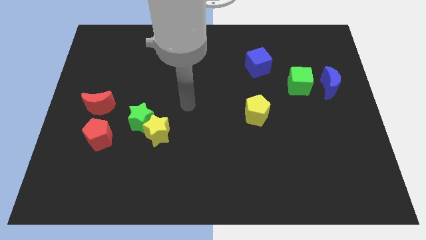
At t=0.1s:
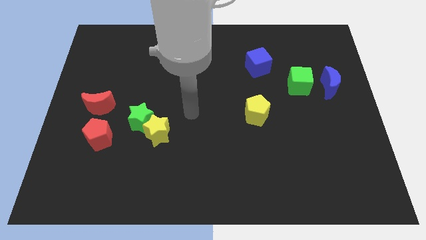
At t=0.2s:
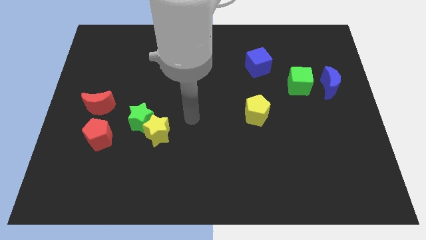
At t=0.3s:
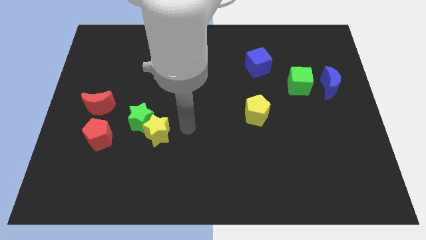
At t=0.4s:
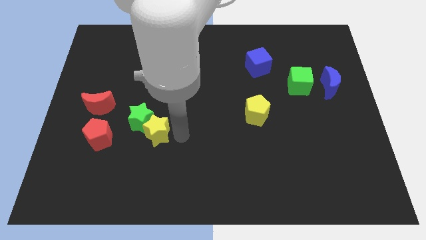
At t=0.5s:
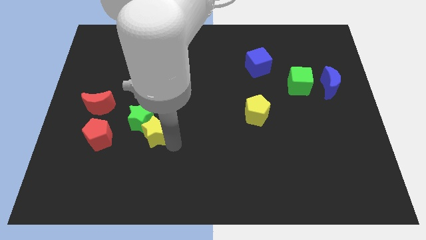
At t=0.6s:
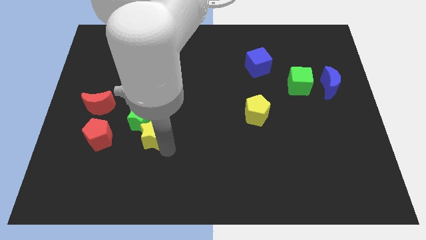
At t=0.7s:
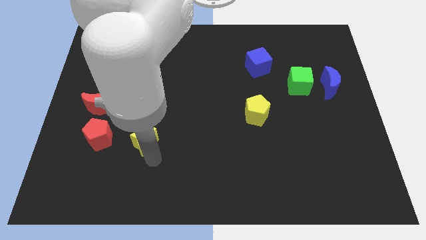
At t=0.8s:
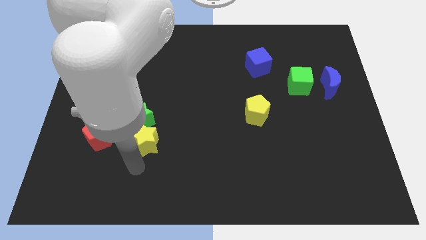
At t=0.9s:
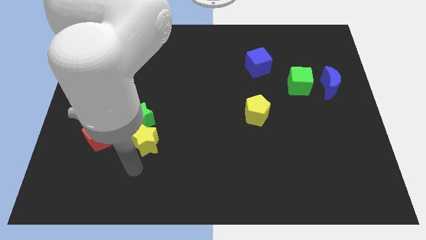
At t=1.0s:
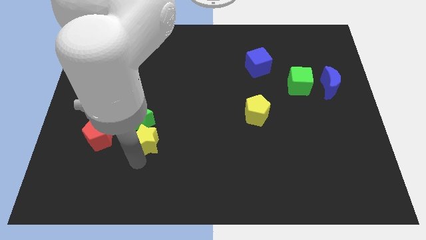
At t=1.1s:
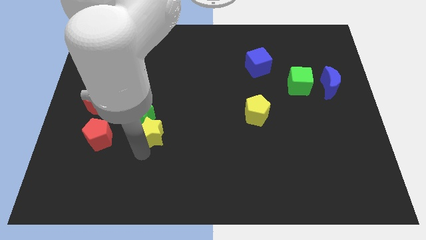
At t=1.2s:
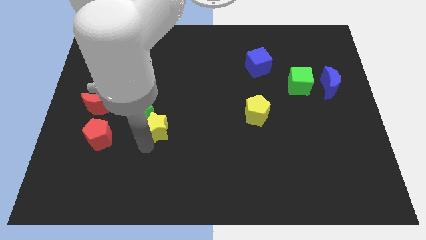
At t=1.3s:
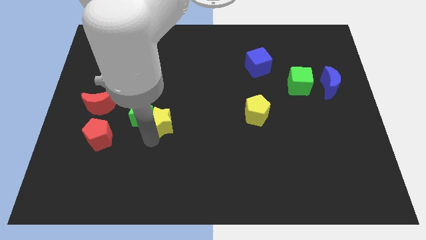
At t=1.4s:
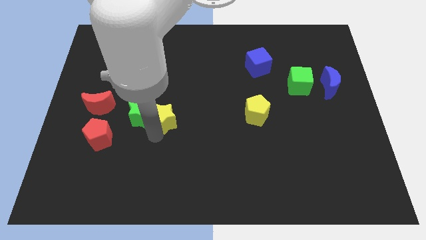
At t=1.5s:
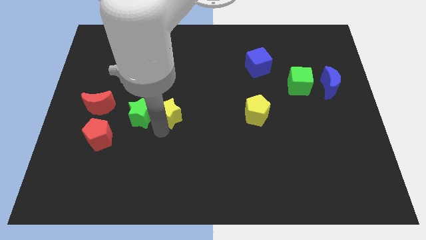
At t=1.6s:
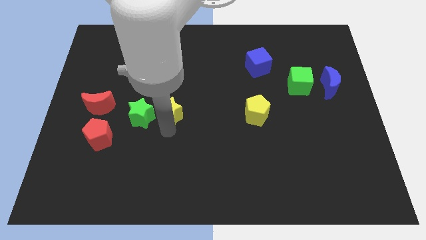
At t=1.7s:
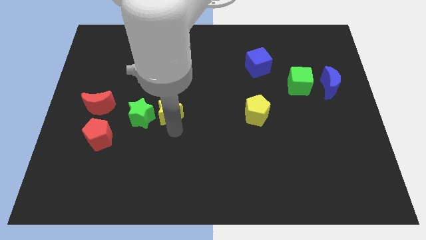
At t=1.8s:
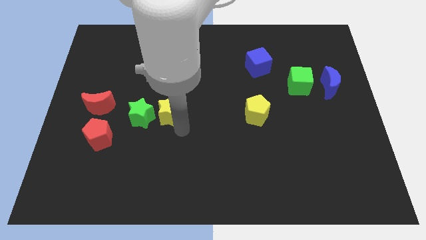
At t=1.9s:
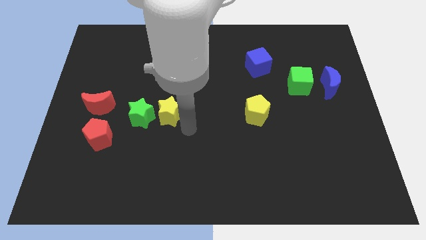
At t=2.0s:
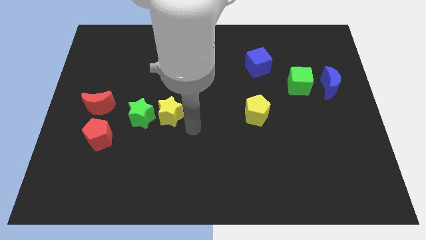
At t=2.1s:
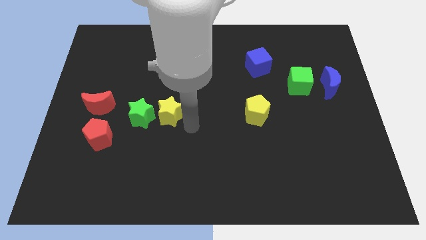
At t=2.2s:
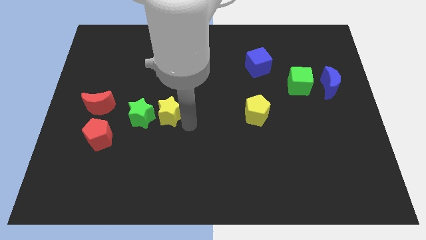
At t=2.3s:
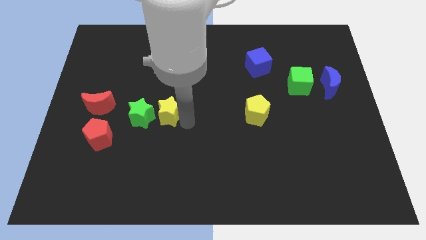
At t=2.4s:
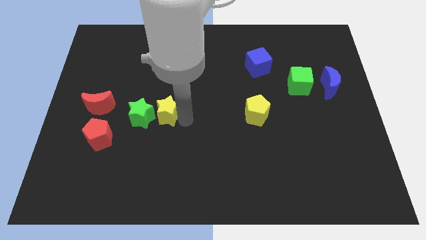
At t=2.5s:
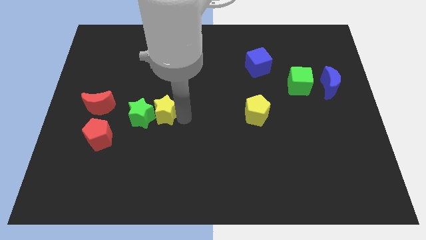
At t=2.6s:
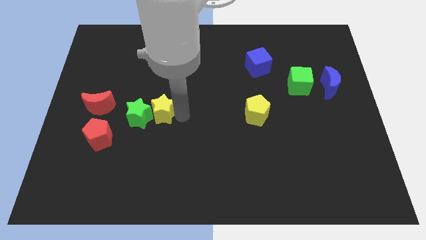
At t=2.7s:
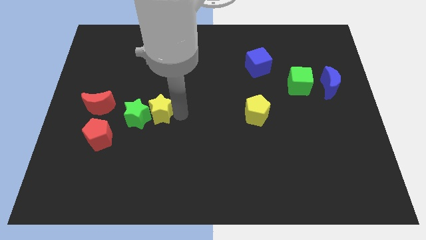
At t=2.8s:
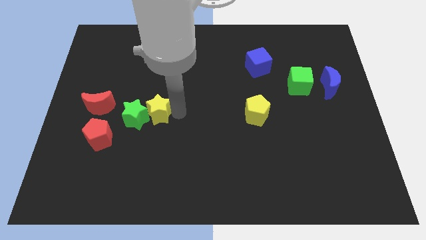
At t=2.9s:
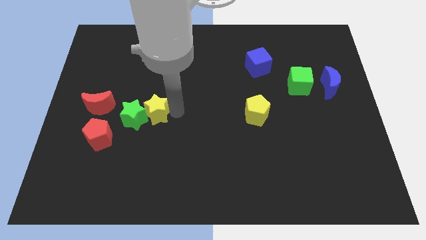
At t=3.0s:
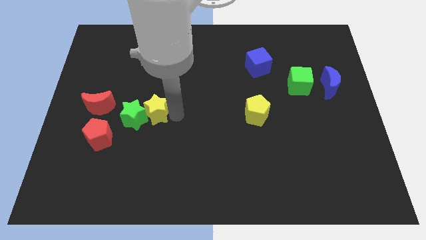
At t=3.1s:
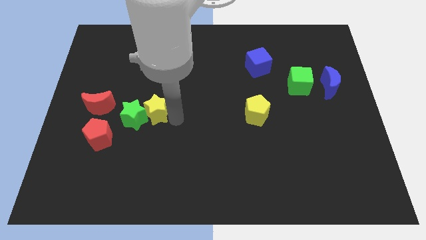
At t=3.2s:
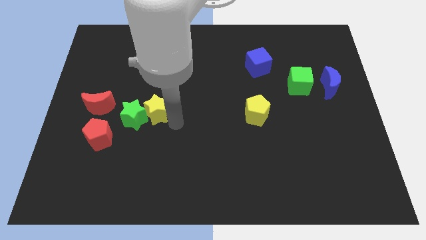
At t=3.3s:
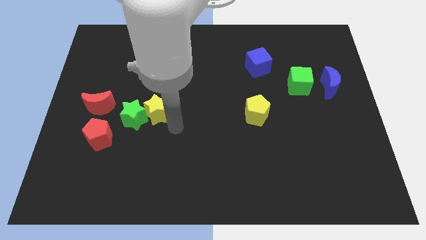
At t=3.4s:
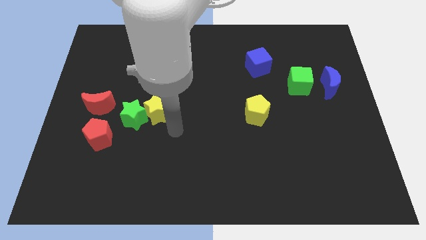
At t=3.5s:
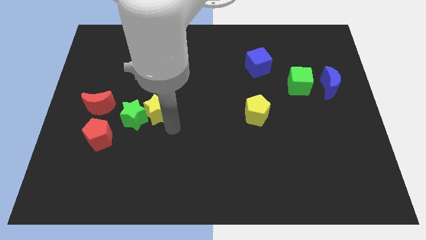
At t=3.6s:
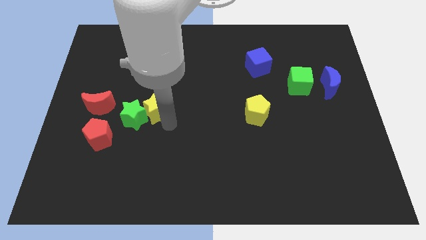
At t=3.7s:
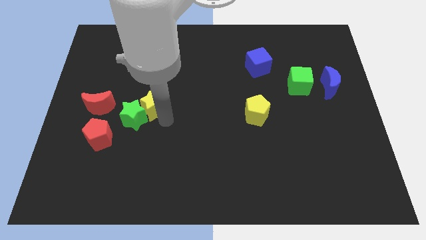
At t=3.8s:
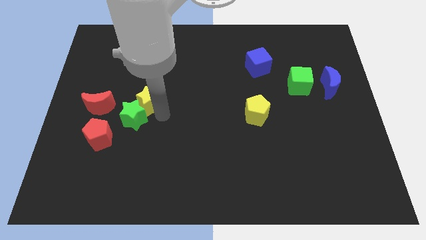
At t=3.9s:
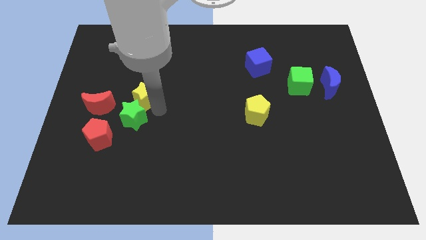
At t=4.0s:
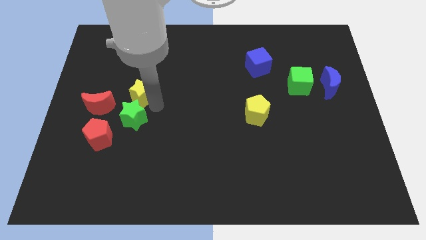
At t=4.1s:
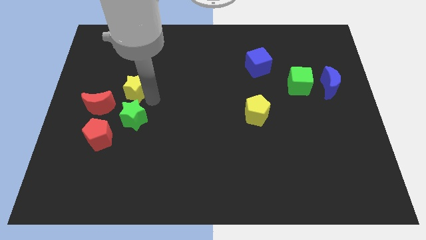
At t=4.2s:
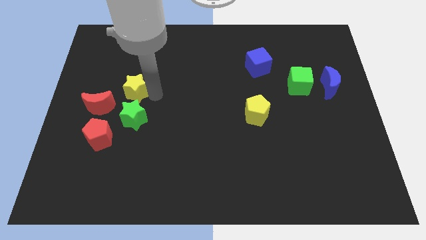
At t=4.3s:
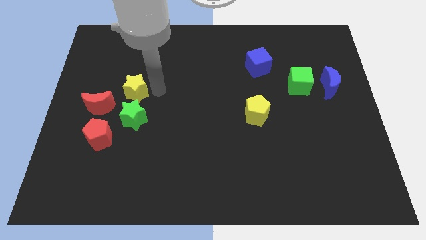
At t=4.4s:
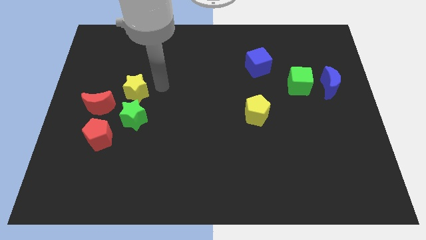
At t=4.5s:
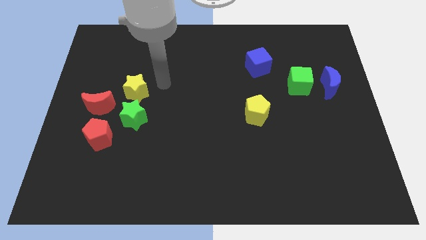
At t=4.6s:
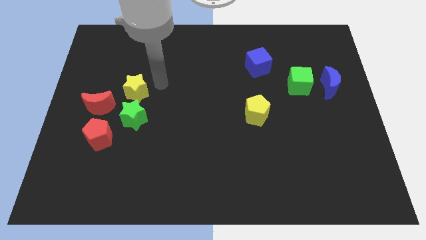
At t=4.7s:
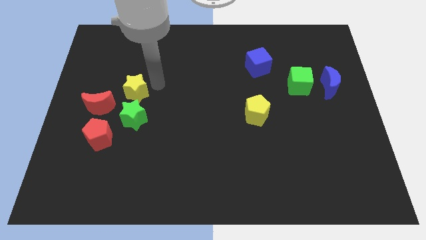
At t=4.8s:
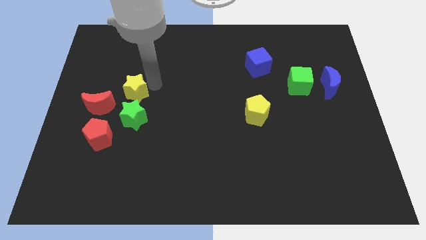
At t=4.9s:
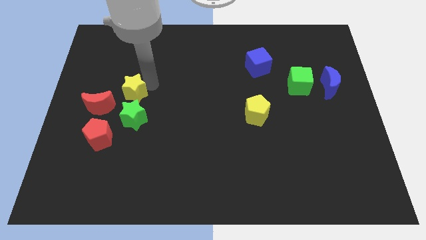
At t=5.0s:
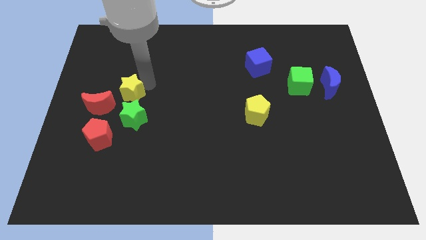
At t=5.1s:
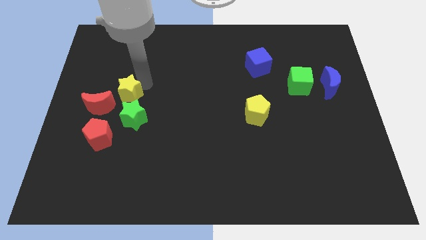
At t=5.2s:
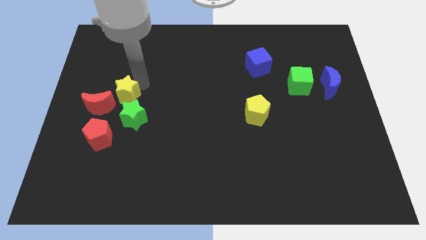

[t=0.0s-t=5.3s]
put the yellow star to the top side of the red pentagon

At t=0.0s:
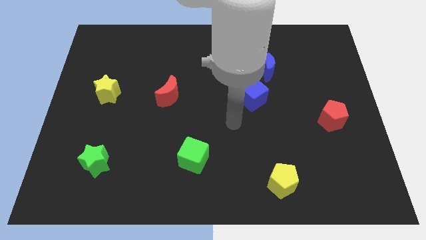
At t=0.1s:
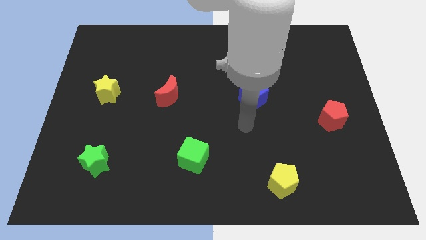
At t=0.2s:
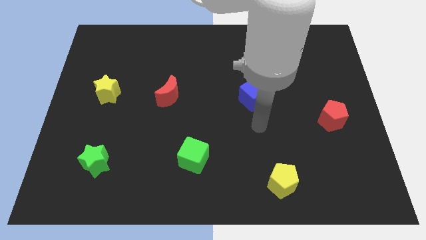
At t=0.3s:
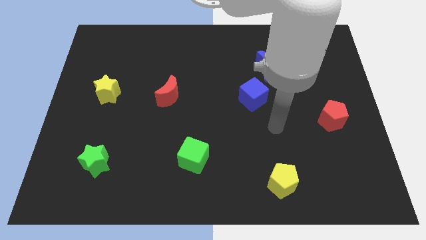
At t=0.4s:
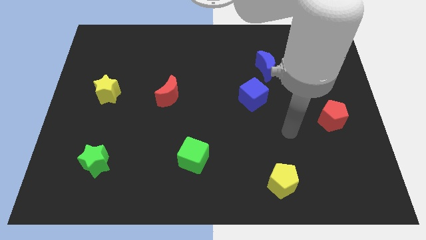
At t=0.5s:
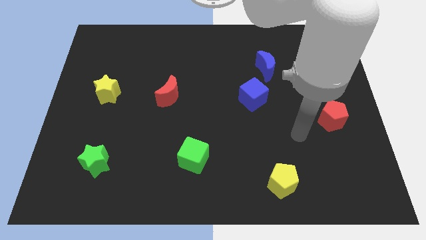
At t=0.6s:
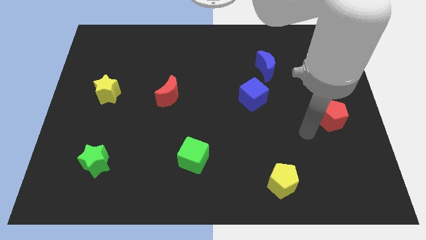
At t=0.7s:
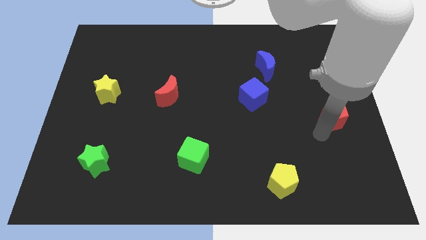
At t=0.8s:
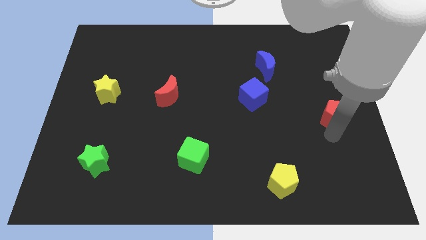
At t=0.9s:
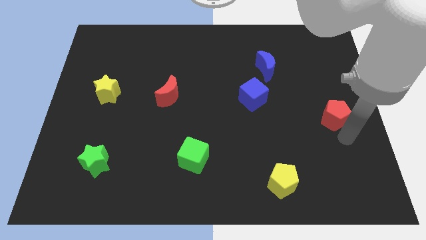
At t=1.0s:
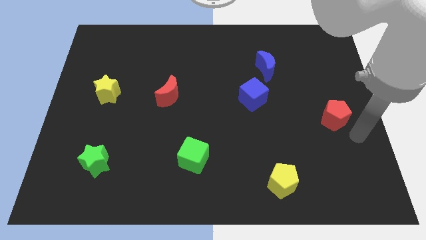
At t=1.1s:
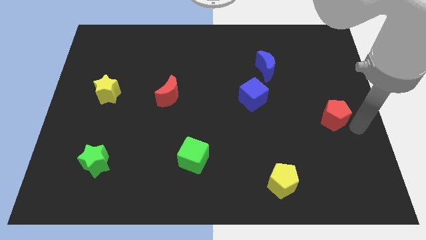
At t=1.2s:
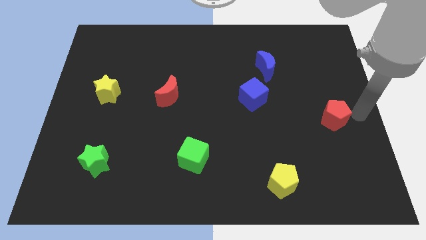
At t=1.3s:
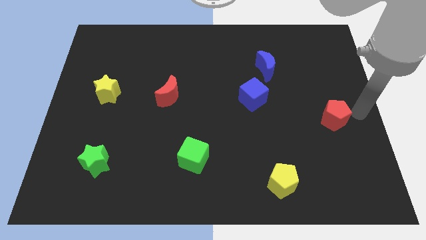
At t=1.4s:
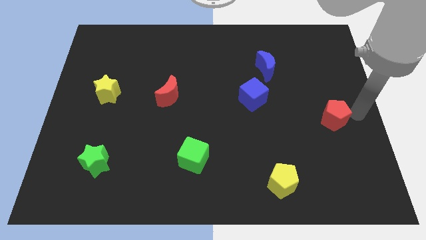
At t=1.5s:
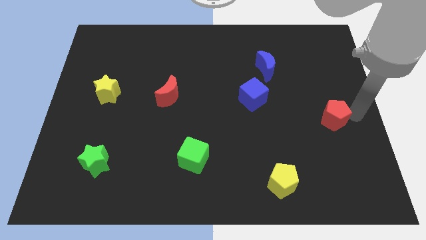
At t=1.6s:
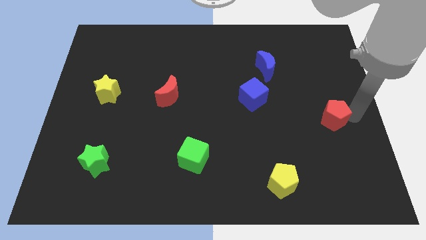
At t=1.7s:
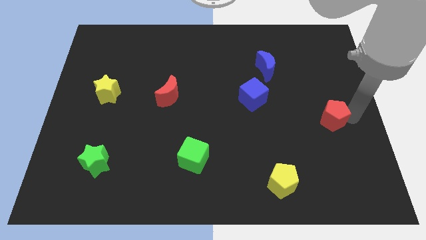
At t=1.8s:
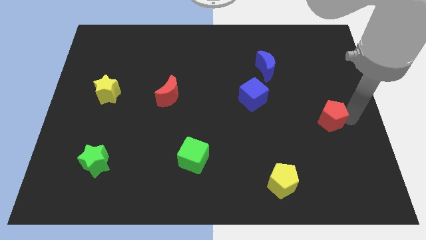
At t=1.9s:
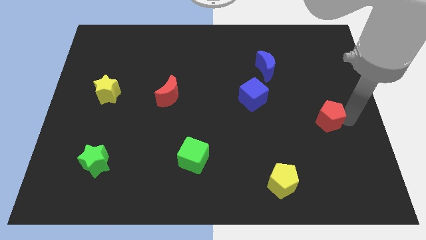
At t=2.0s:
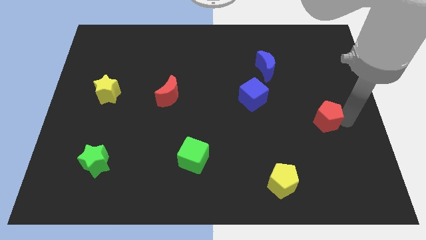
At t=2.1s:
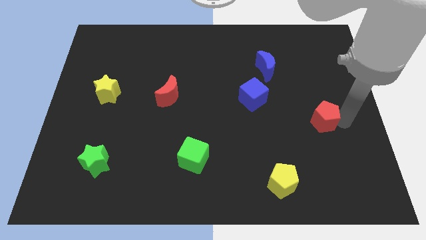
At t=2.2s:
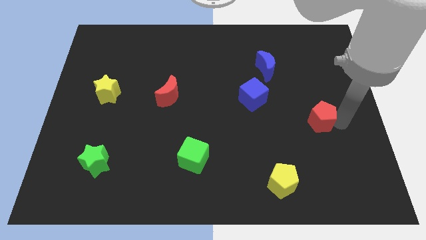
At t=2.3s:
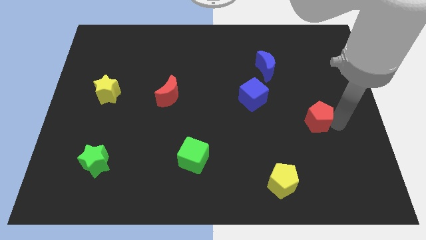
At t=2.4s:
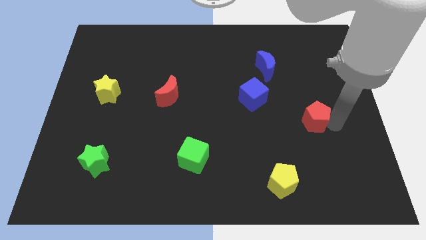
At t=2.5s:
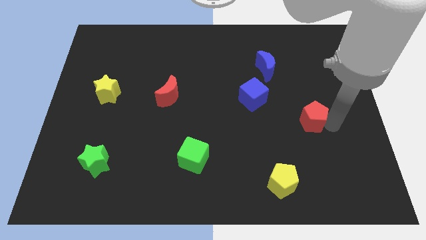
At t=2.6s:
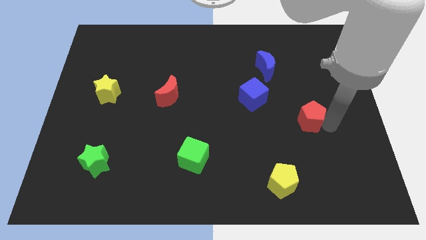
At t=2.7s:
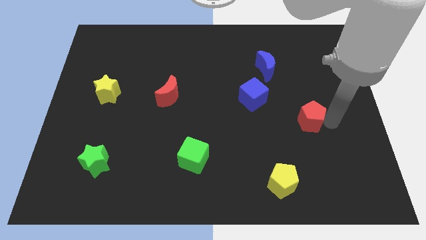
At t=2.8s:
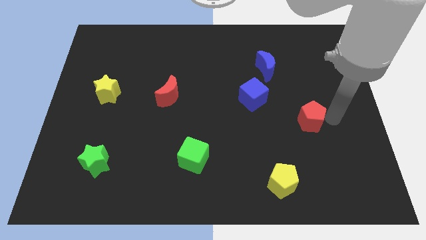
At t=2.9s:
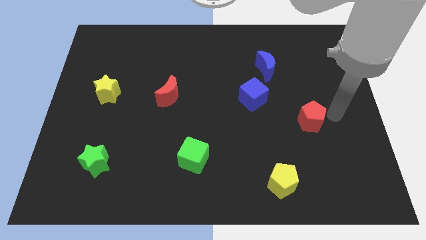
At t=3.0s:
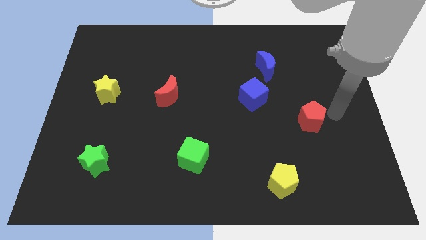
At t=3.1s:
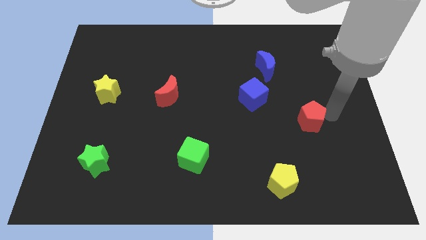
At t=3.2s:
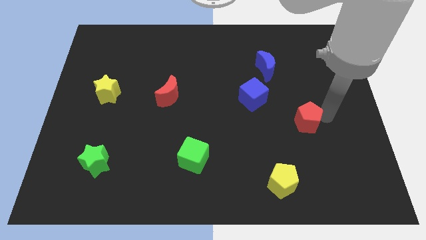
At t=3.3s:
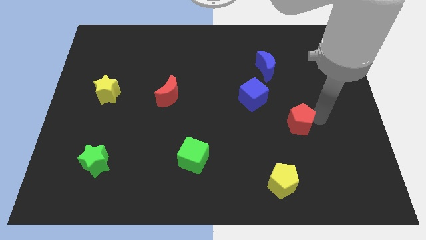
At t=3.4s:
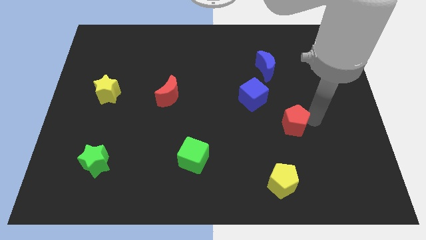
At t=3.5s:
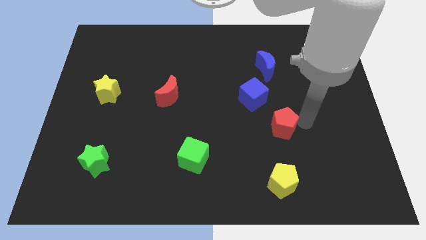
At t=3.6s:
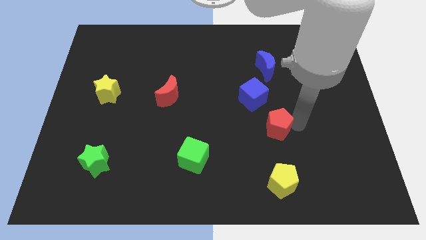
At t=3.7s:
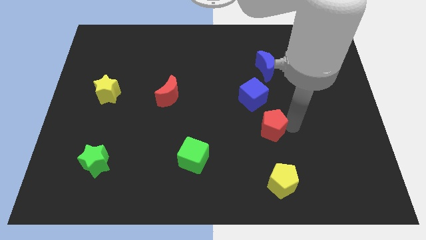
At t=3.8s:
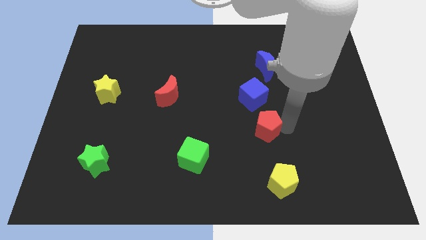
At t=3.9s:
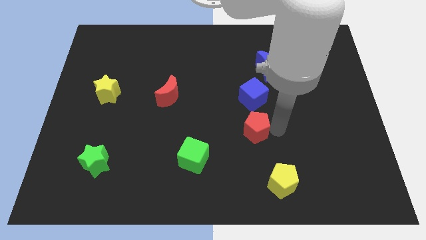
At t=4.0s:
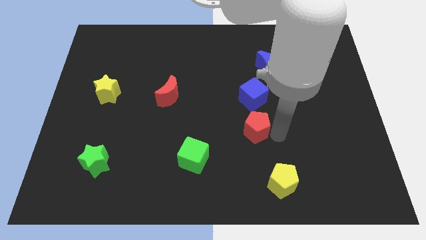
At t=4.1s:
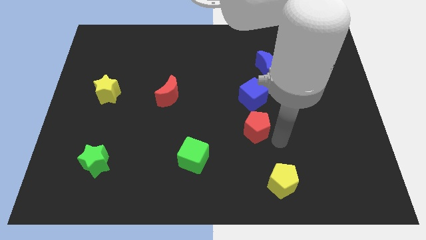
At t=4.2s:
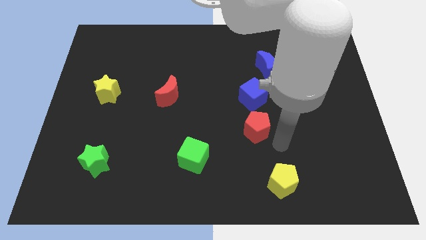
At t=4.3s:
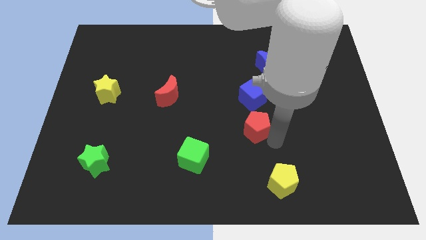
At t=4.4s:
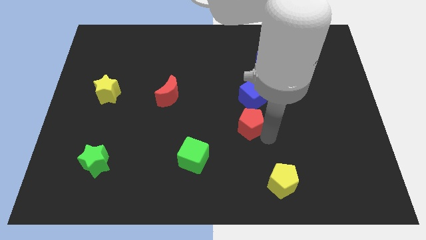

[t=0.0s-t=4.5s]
push the red pentagon to the bottom left of the blue cube
